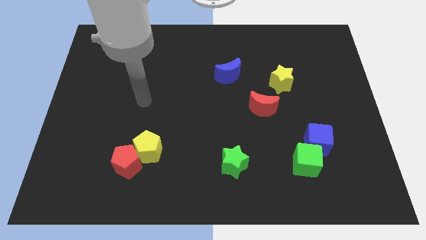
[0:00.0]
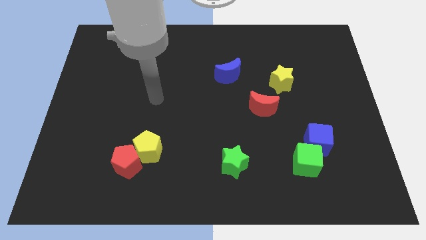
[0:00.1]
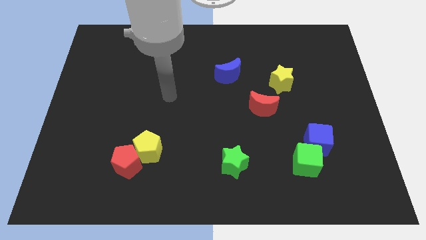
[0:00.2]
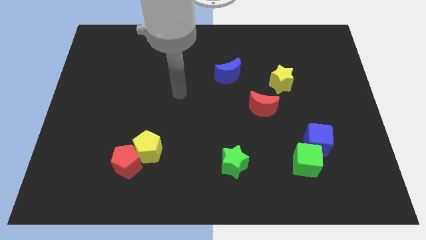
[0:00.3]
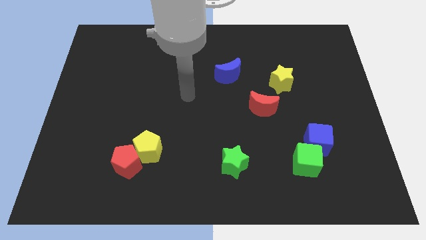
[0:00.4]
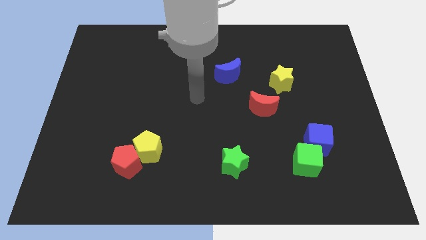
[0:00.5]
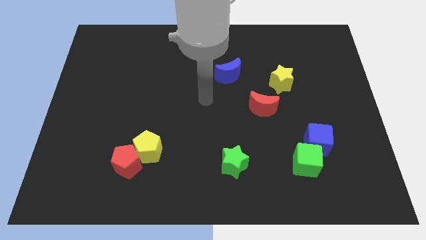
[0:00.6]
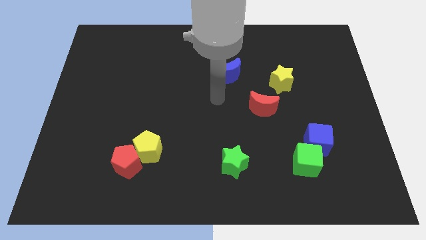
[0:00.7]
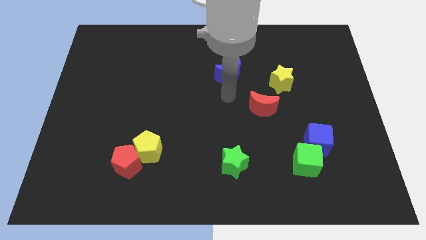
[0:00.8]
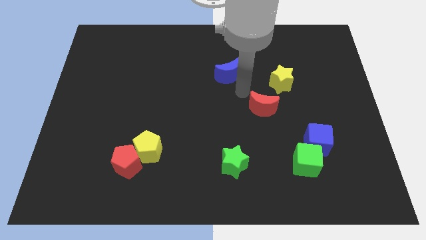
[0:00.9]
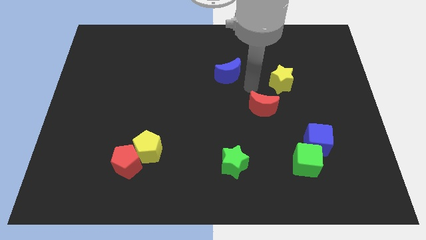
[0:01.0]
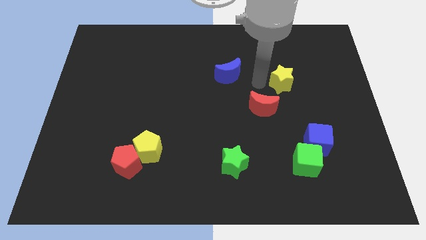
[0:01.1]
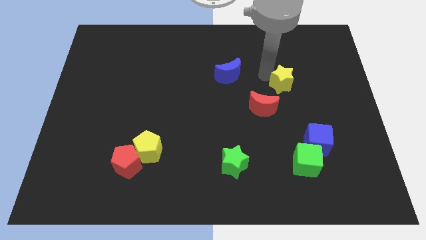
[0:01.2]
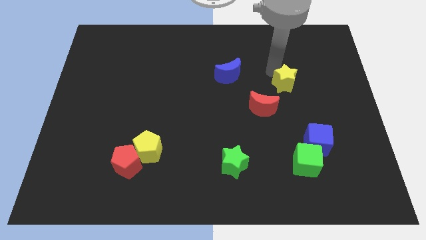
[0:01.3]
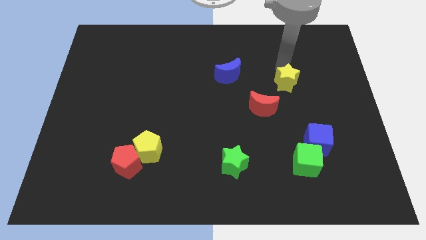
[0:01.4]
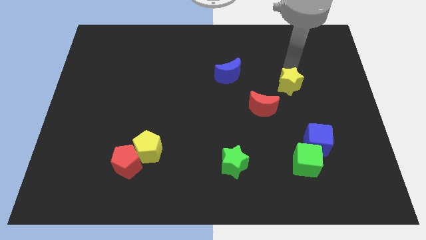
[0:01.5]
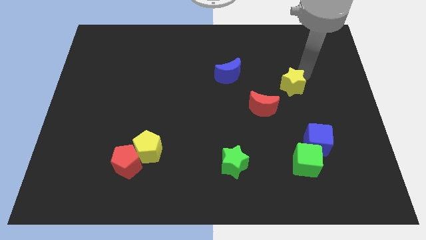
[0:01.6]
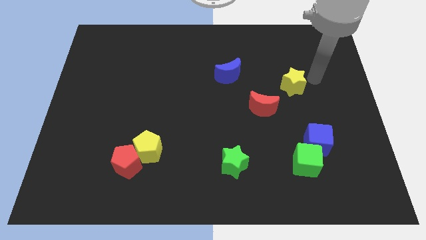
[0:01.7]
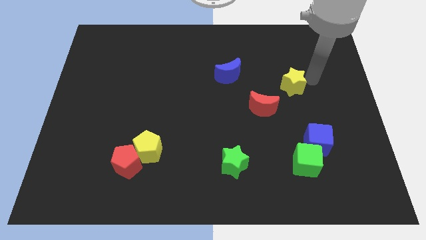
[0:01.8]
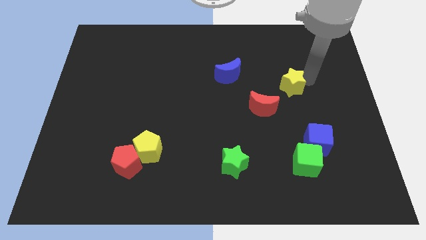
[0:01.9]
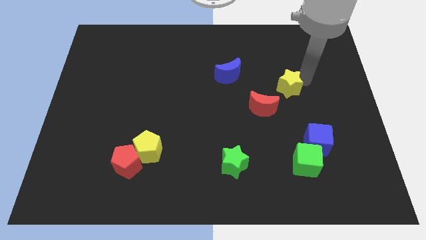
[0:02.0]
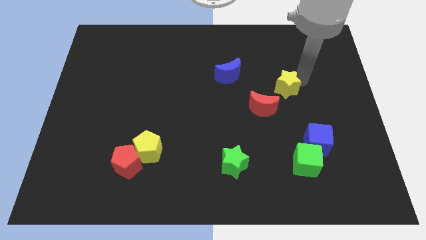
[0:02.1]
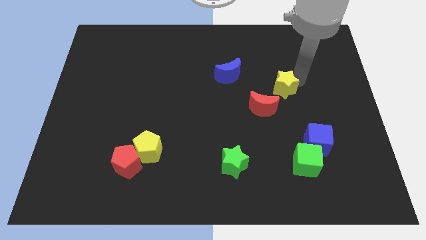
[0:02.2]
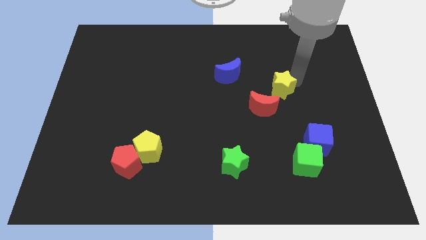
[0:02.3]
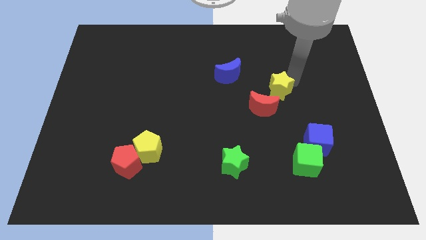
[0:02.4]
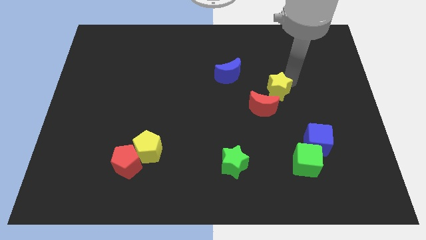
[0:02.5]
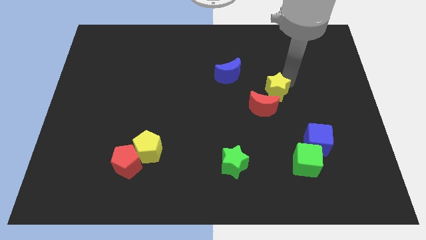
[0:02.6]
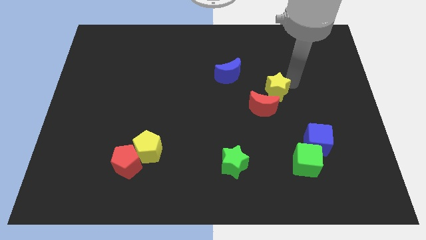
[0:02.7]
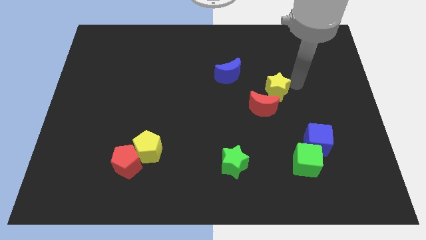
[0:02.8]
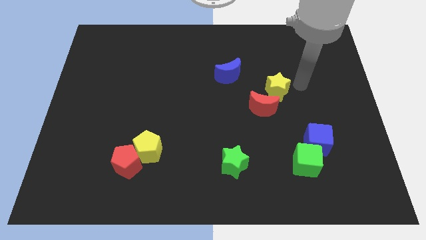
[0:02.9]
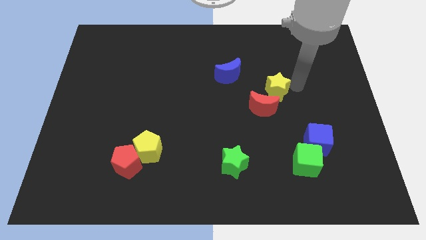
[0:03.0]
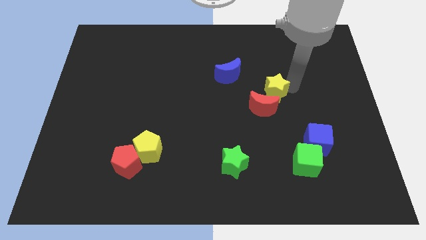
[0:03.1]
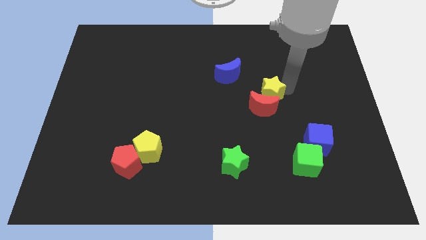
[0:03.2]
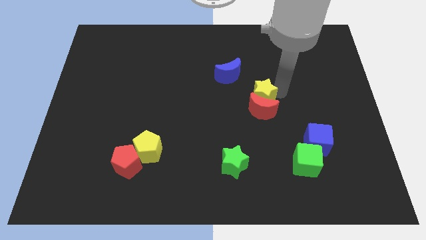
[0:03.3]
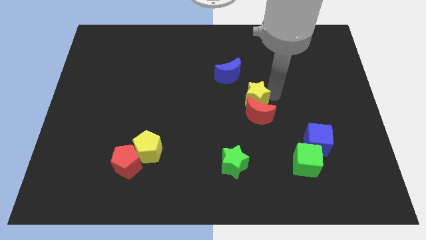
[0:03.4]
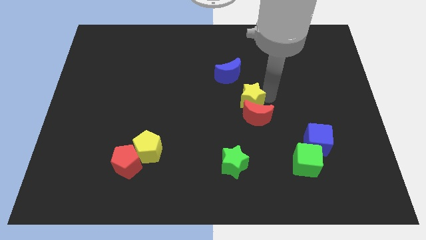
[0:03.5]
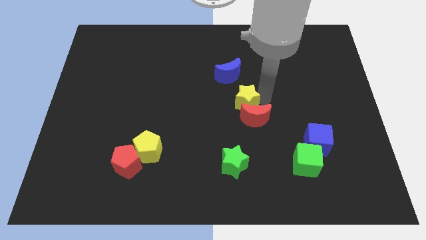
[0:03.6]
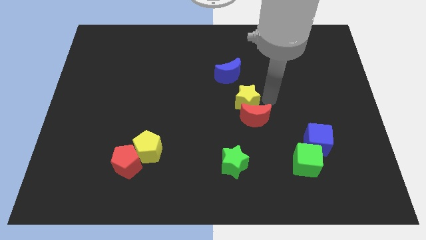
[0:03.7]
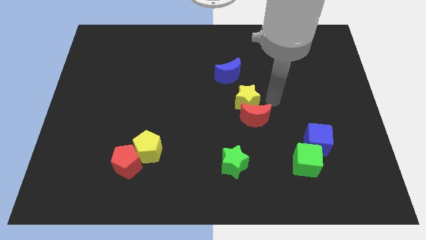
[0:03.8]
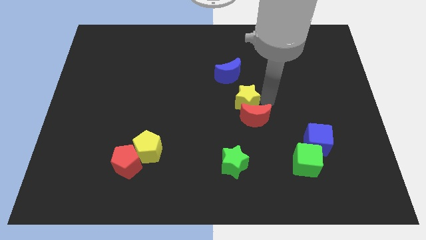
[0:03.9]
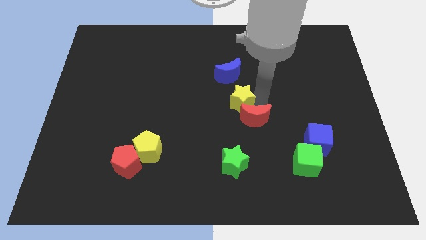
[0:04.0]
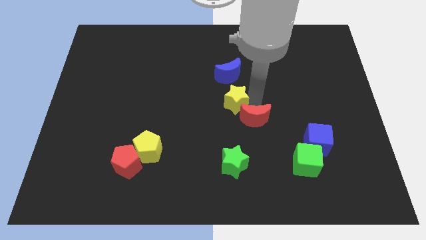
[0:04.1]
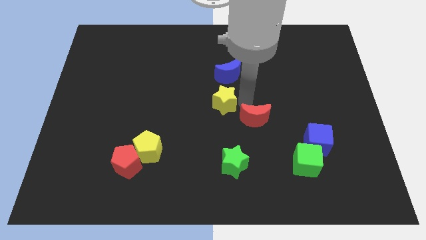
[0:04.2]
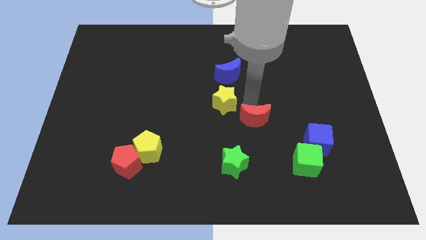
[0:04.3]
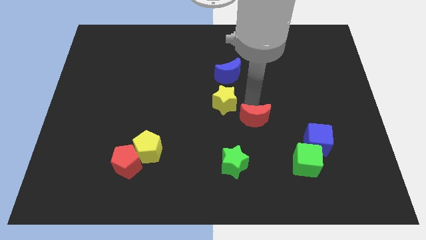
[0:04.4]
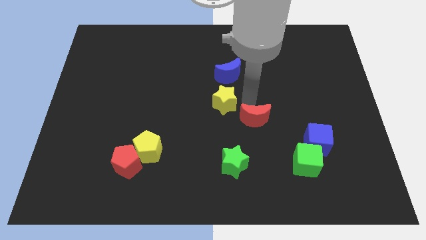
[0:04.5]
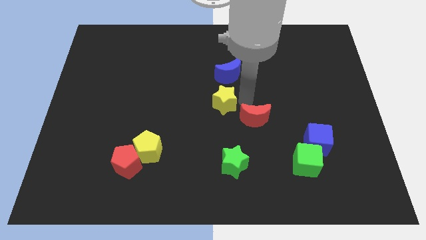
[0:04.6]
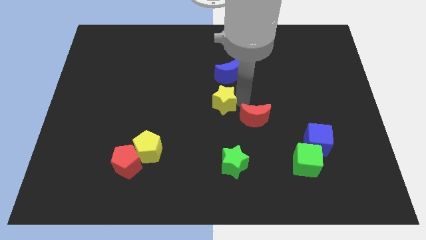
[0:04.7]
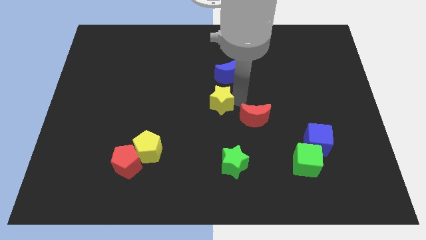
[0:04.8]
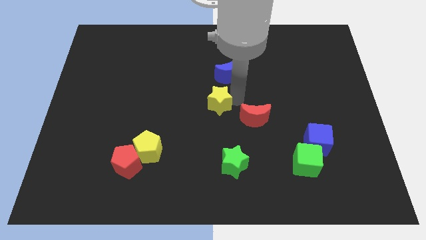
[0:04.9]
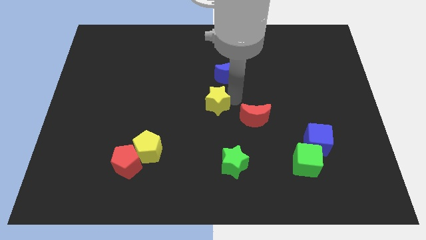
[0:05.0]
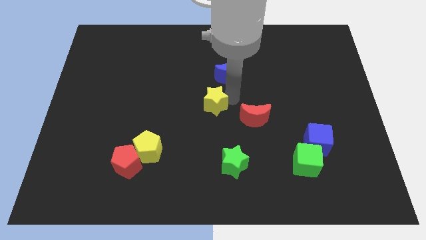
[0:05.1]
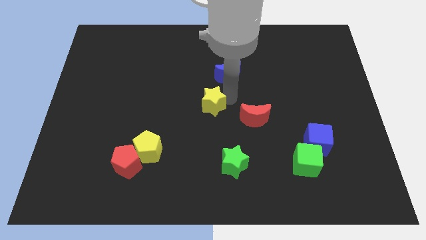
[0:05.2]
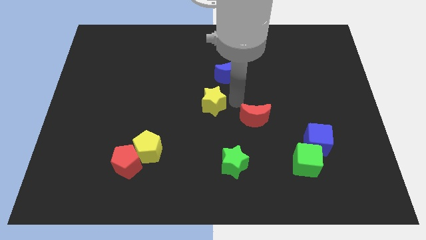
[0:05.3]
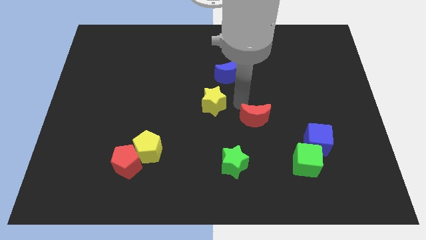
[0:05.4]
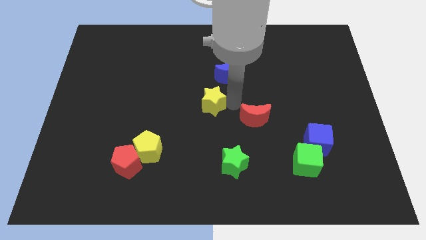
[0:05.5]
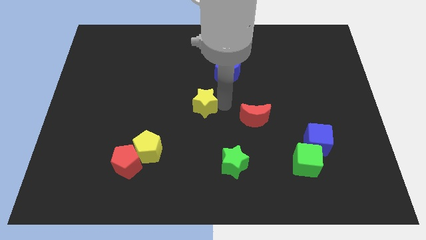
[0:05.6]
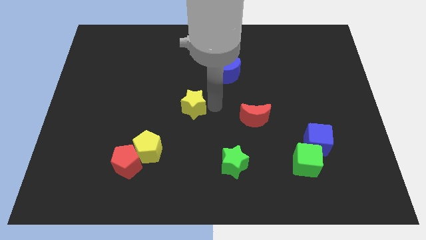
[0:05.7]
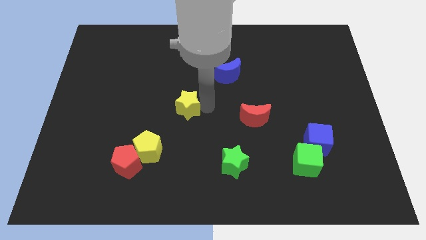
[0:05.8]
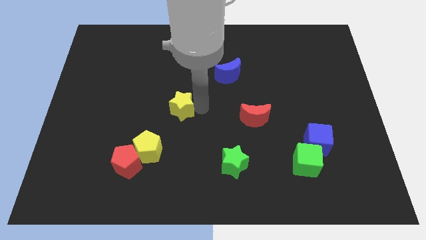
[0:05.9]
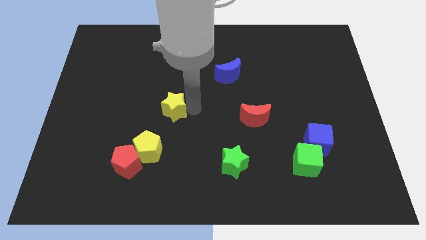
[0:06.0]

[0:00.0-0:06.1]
move the yellow star above the yellow pentagon

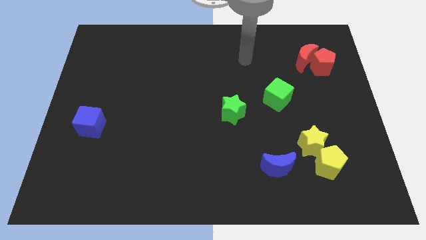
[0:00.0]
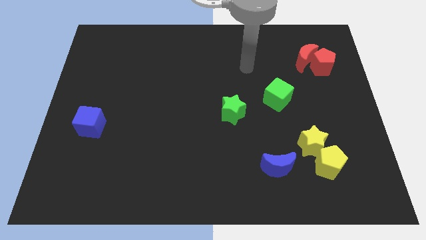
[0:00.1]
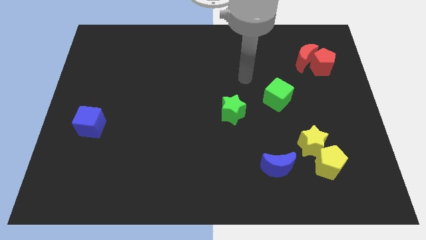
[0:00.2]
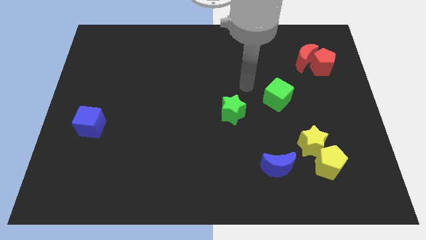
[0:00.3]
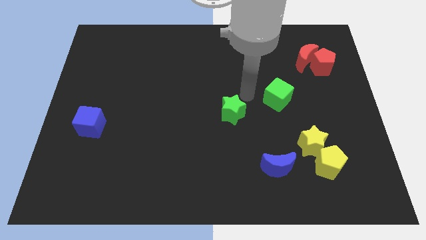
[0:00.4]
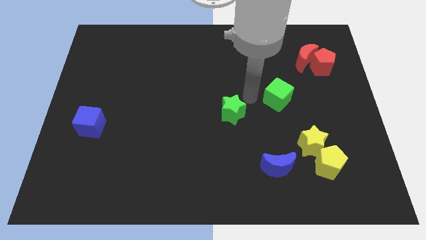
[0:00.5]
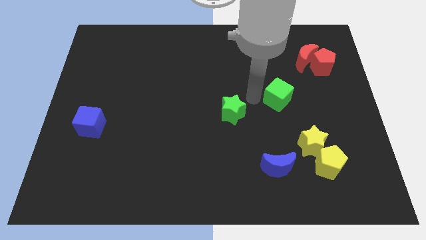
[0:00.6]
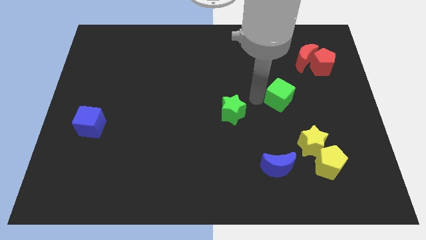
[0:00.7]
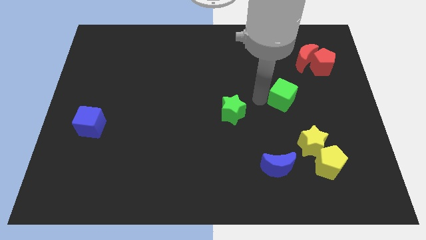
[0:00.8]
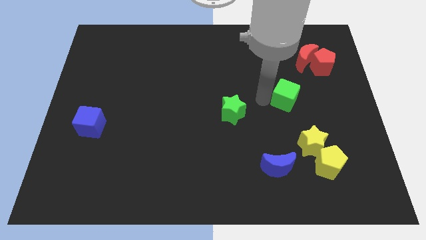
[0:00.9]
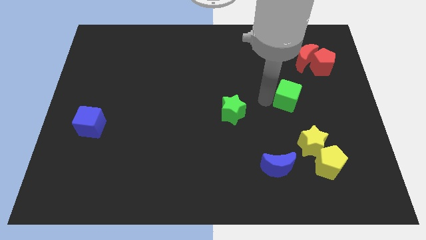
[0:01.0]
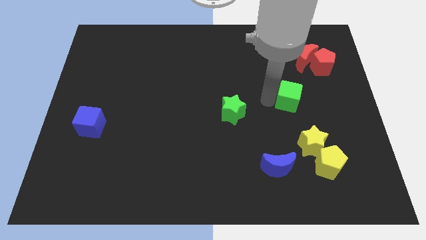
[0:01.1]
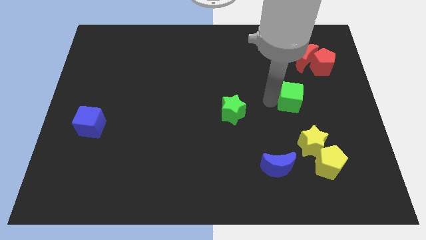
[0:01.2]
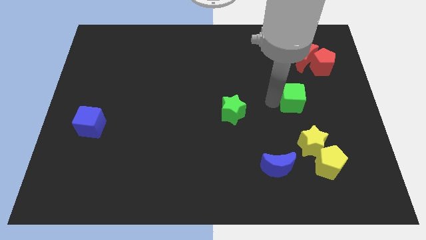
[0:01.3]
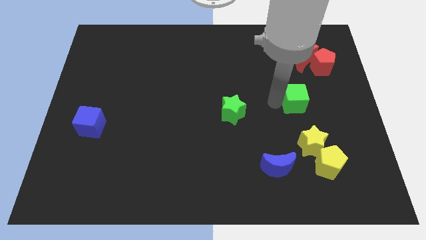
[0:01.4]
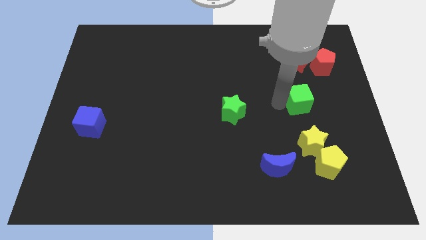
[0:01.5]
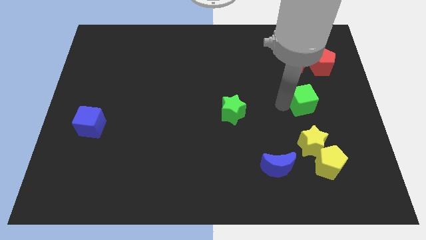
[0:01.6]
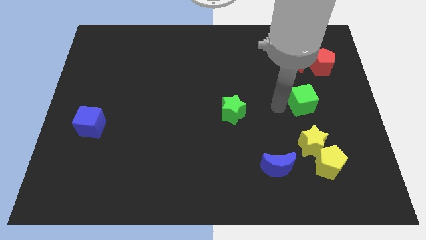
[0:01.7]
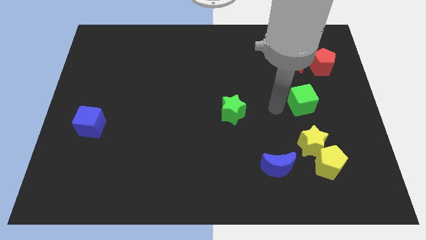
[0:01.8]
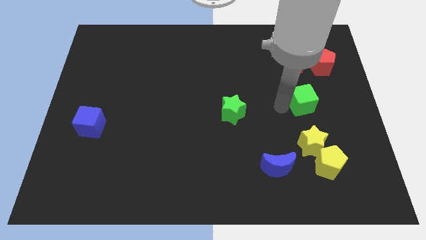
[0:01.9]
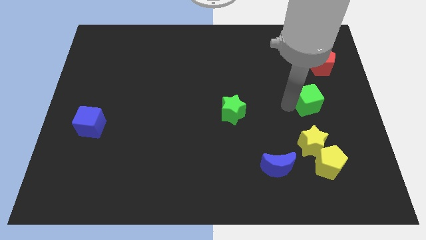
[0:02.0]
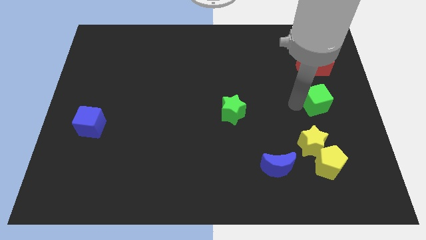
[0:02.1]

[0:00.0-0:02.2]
put the green cube to the bottom of the red pentagon
